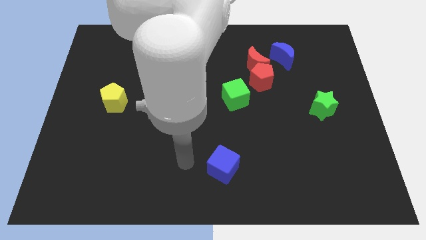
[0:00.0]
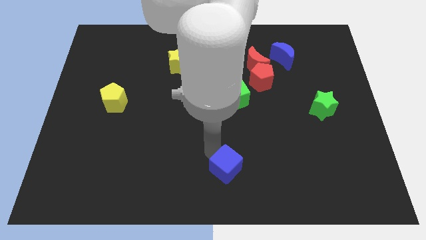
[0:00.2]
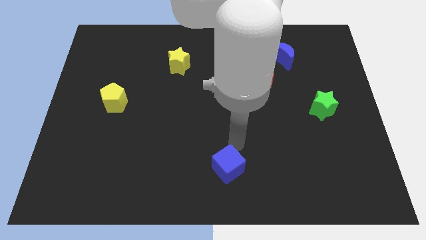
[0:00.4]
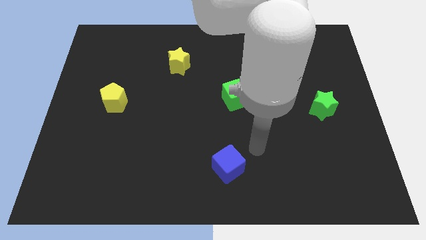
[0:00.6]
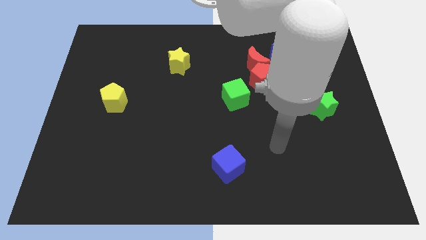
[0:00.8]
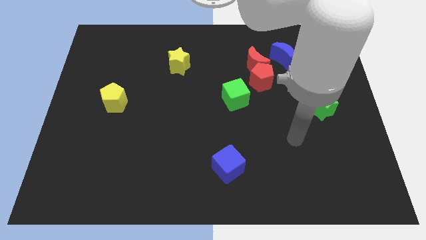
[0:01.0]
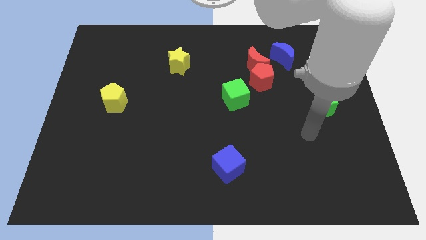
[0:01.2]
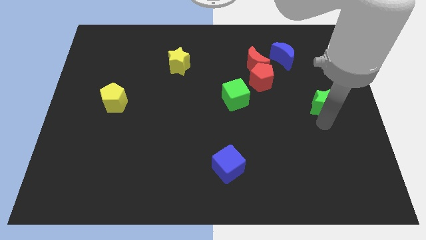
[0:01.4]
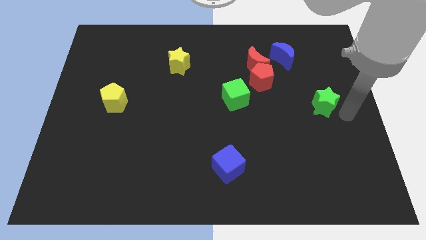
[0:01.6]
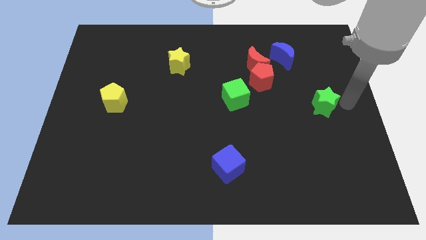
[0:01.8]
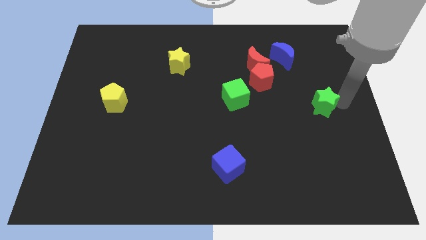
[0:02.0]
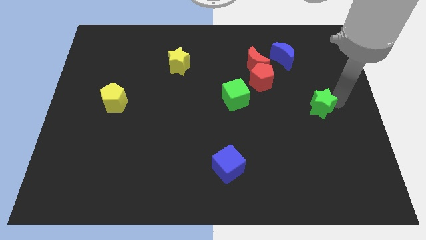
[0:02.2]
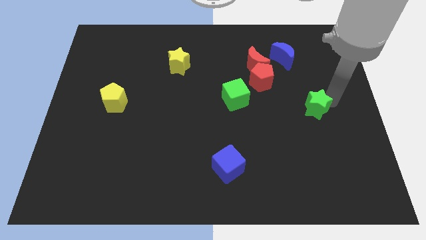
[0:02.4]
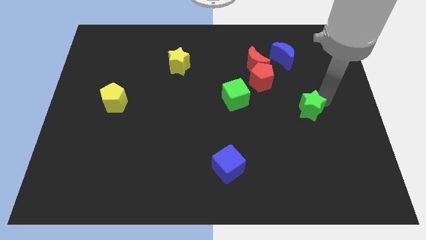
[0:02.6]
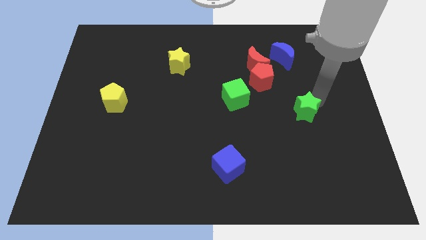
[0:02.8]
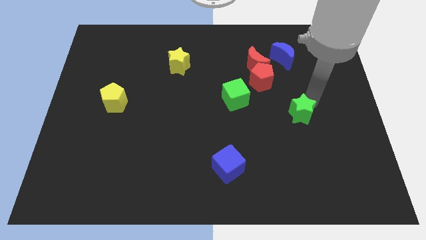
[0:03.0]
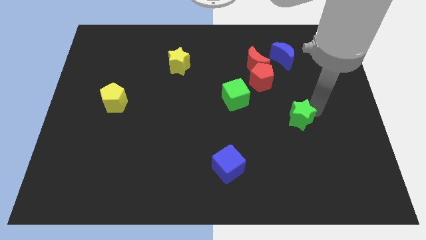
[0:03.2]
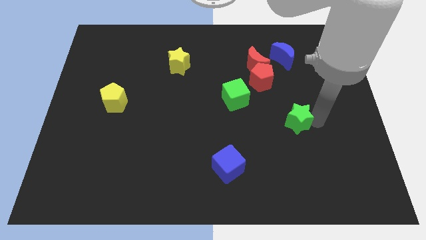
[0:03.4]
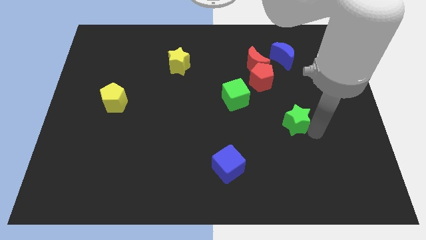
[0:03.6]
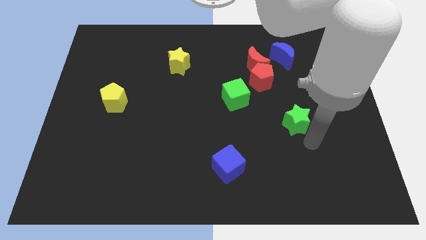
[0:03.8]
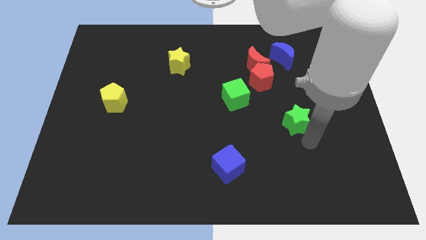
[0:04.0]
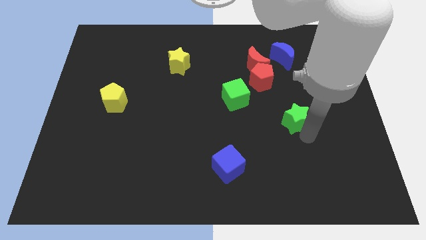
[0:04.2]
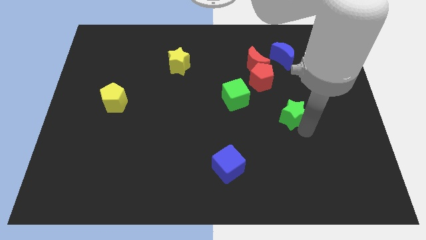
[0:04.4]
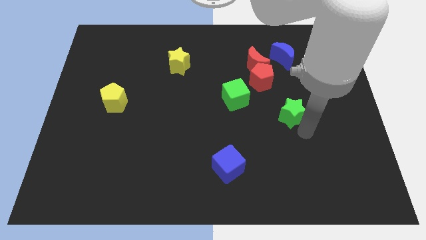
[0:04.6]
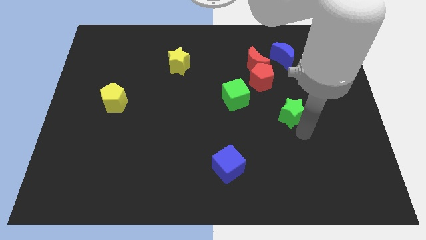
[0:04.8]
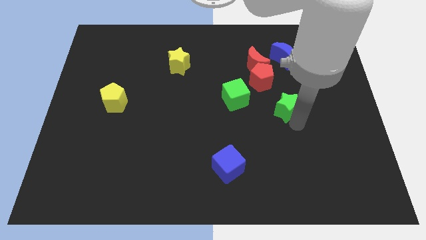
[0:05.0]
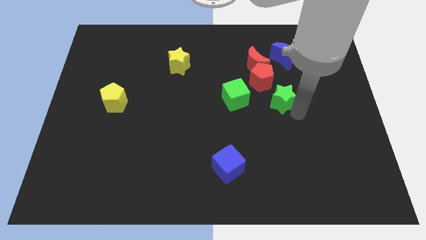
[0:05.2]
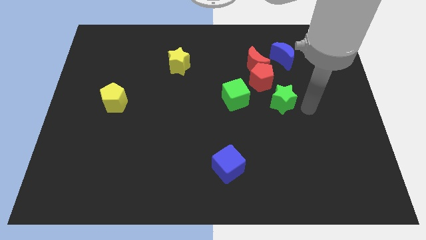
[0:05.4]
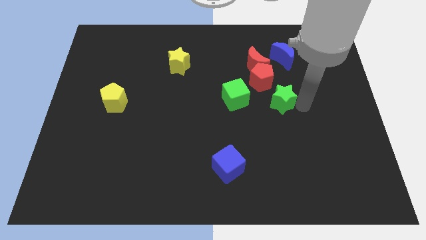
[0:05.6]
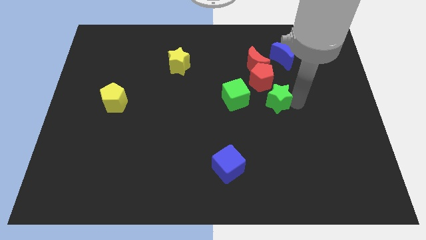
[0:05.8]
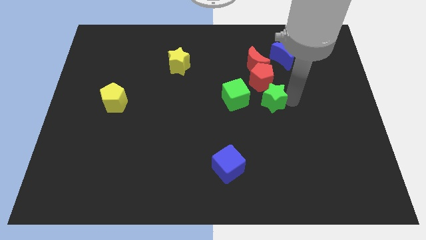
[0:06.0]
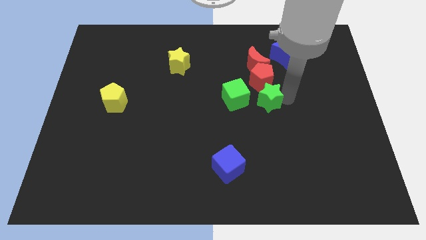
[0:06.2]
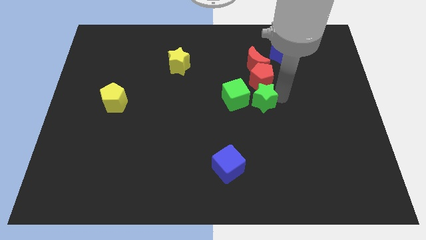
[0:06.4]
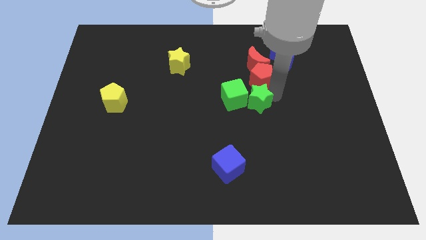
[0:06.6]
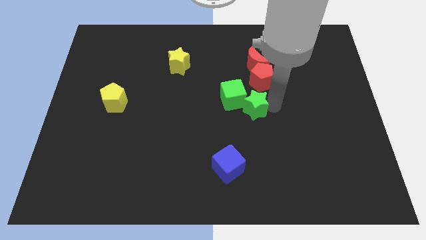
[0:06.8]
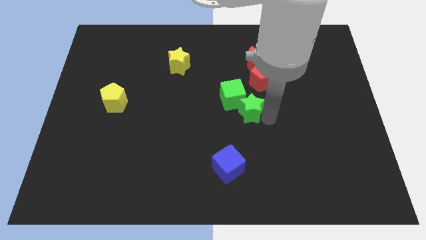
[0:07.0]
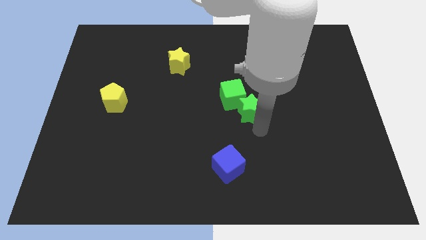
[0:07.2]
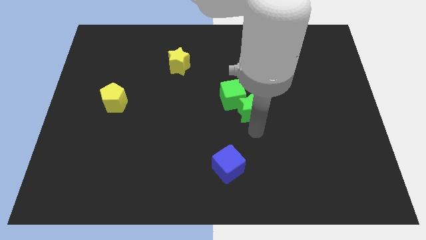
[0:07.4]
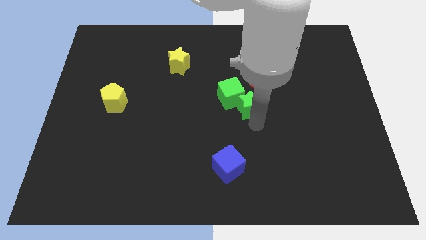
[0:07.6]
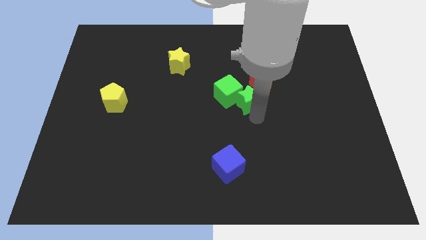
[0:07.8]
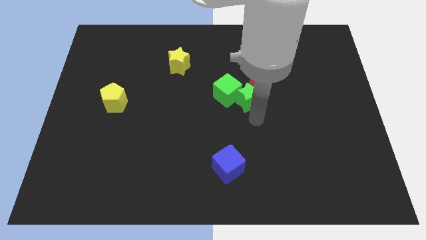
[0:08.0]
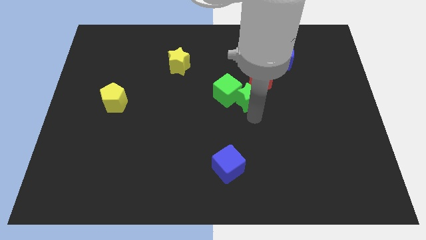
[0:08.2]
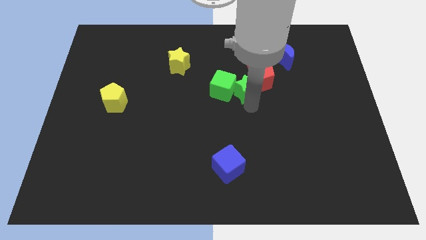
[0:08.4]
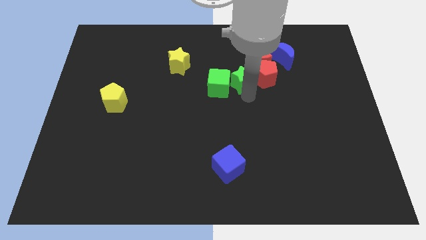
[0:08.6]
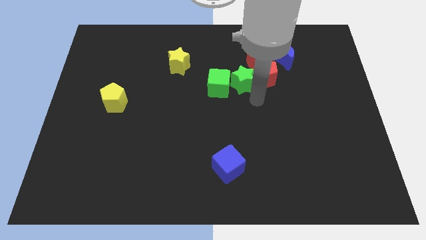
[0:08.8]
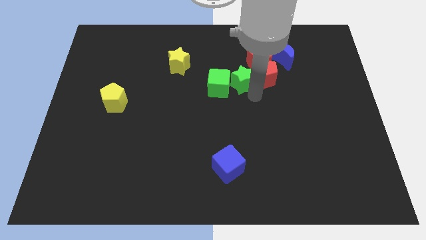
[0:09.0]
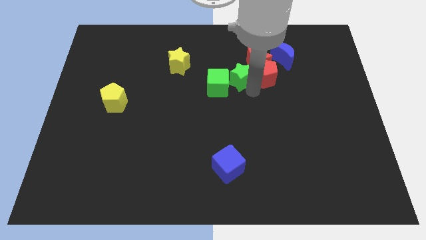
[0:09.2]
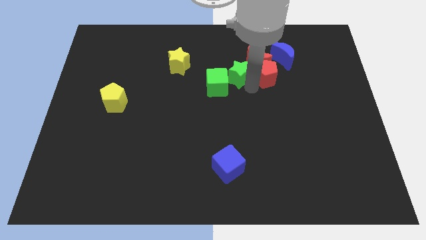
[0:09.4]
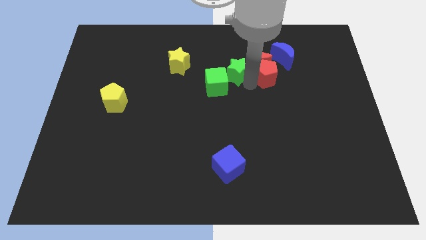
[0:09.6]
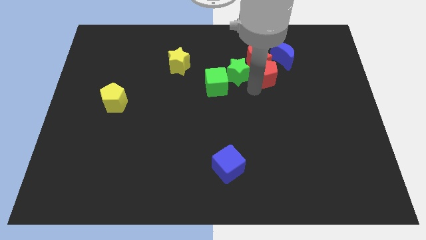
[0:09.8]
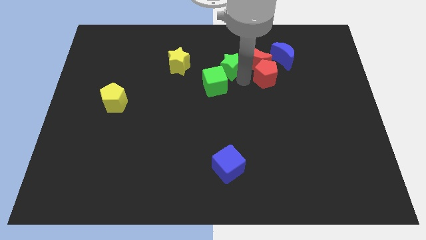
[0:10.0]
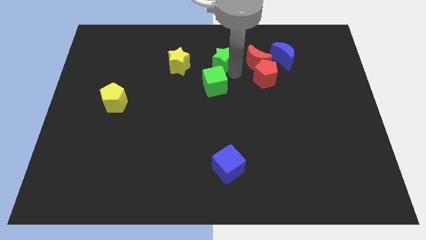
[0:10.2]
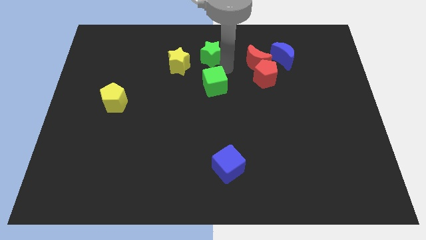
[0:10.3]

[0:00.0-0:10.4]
move the green star to the top

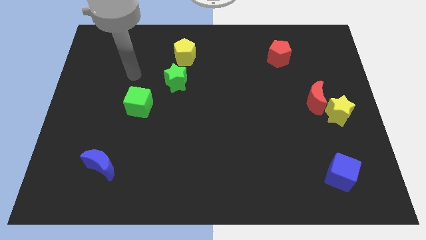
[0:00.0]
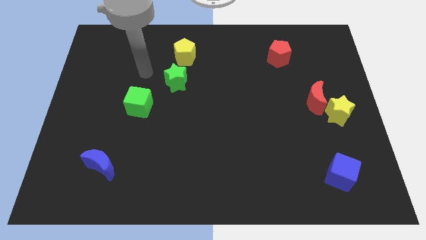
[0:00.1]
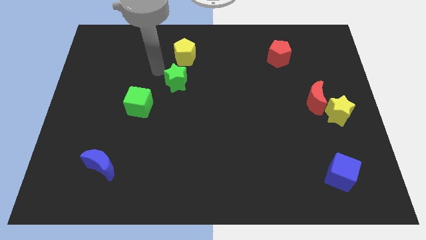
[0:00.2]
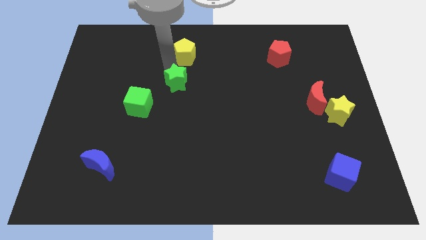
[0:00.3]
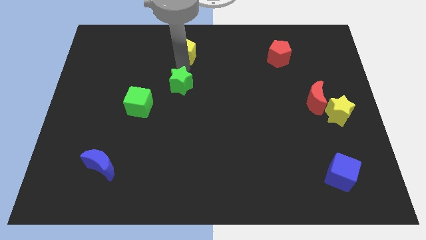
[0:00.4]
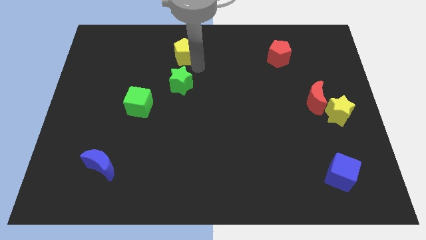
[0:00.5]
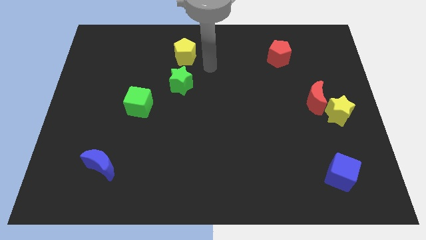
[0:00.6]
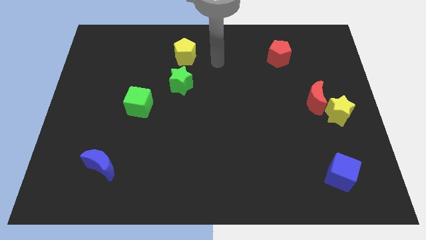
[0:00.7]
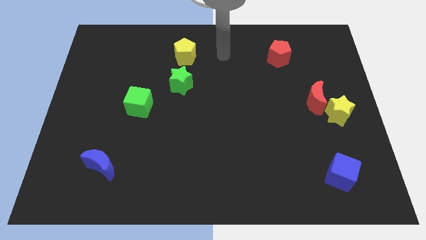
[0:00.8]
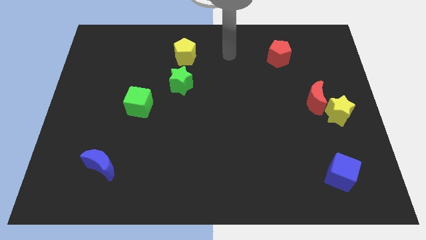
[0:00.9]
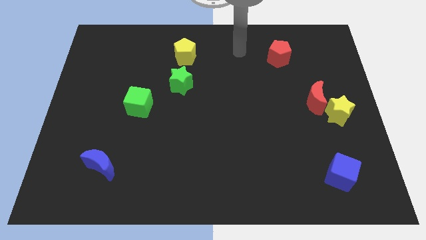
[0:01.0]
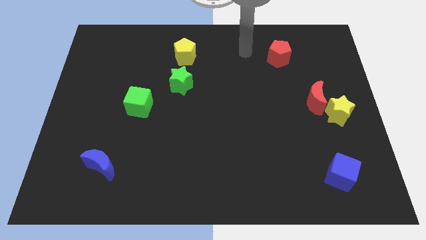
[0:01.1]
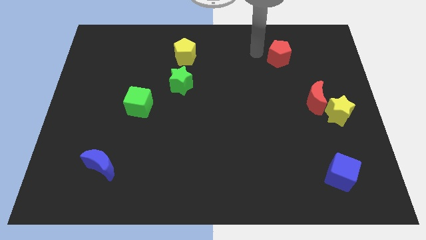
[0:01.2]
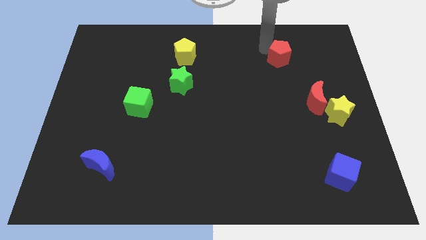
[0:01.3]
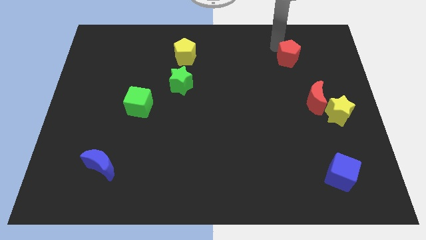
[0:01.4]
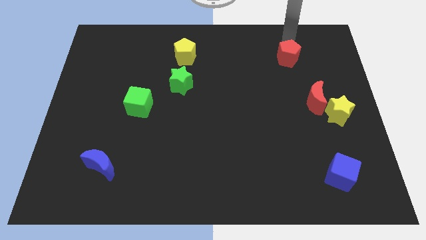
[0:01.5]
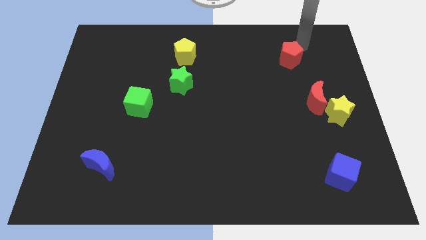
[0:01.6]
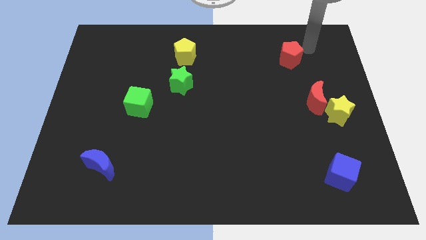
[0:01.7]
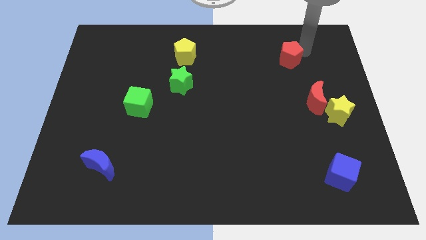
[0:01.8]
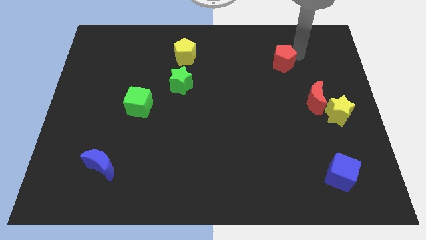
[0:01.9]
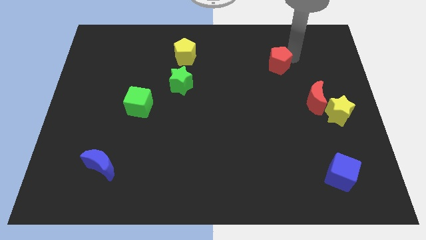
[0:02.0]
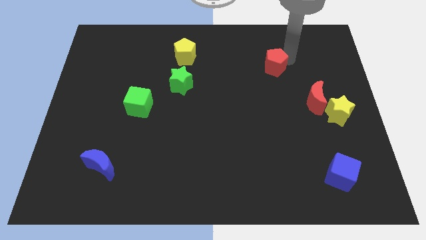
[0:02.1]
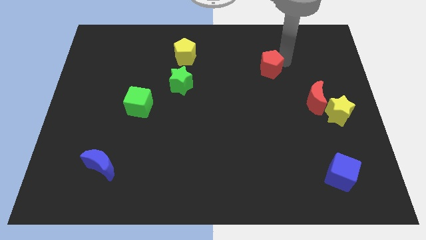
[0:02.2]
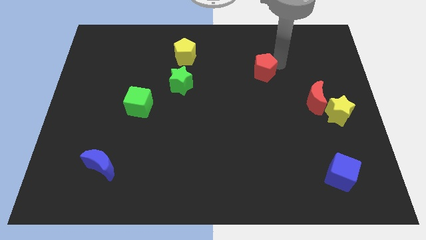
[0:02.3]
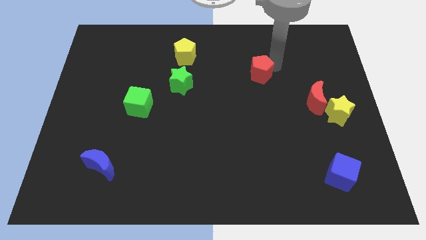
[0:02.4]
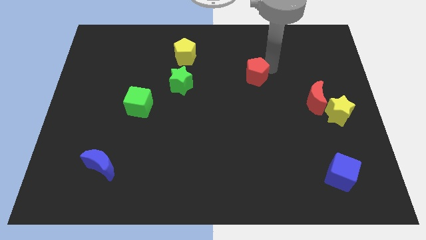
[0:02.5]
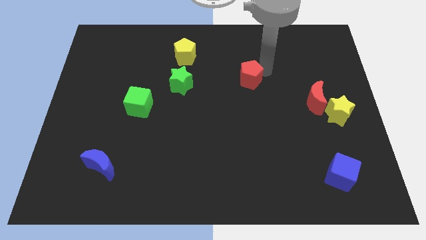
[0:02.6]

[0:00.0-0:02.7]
put the red pentagon to the center of the board
